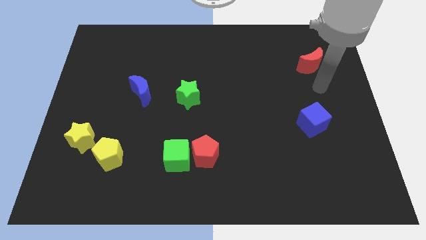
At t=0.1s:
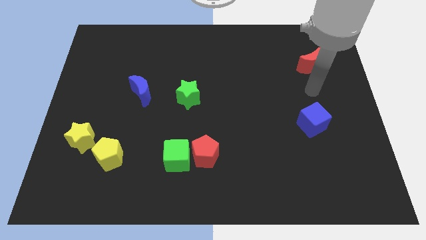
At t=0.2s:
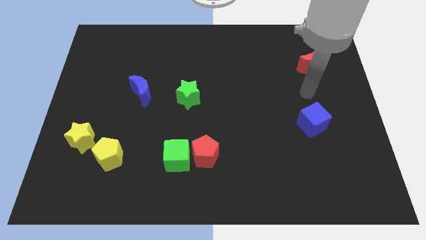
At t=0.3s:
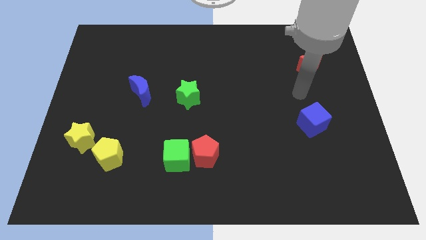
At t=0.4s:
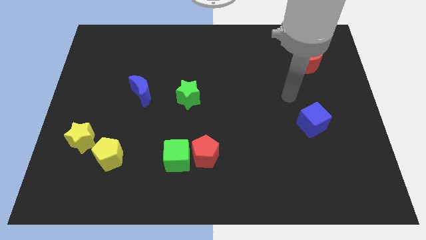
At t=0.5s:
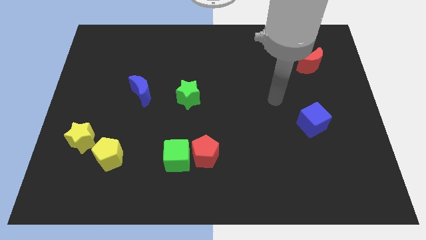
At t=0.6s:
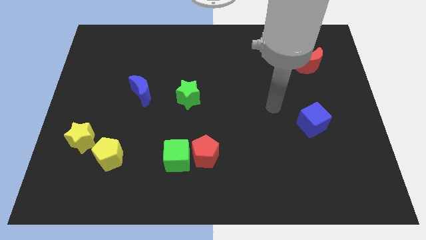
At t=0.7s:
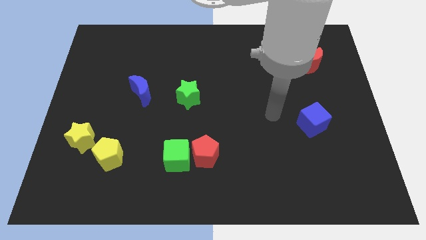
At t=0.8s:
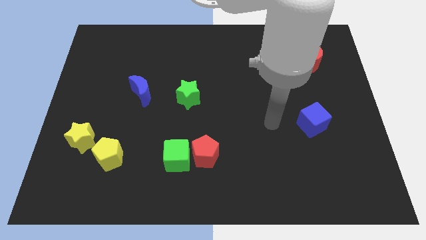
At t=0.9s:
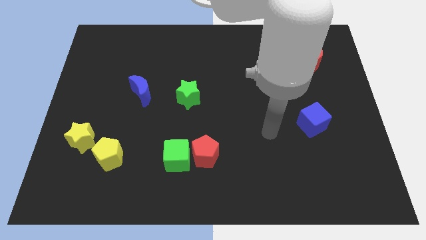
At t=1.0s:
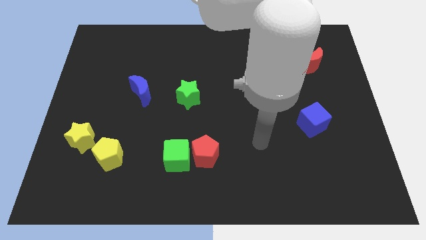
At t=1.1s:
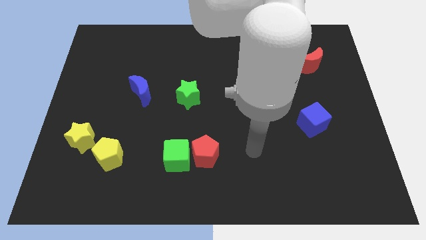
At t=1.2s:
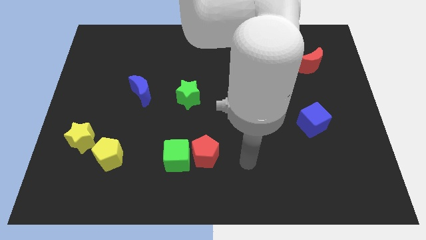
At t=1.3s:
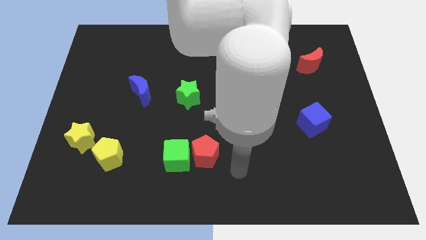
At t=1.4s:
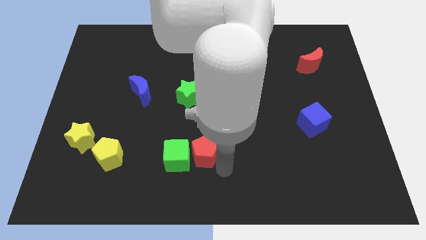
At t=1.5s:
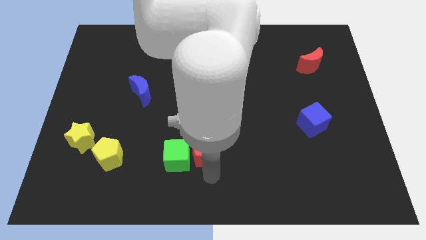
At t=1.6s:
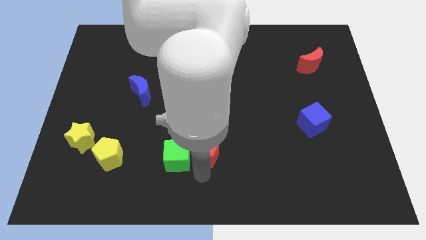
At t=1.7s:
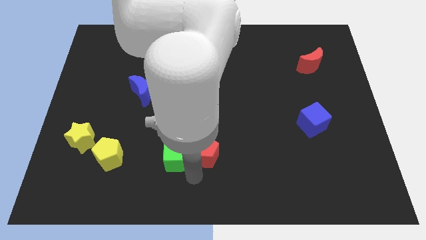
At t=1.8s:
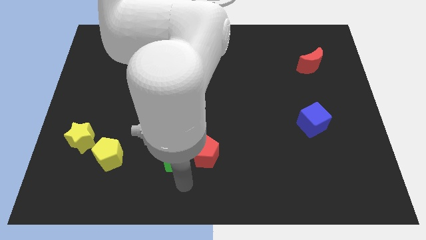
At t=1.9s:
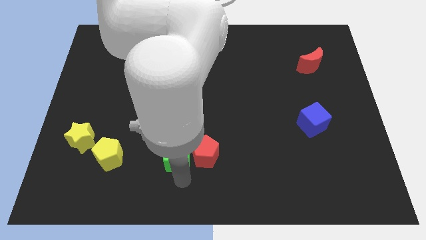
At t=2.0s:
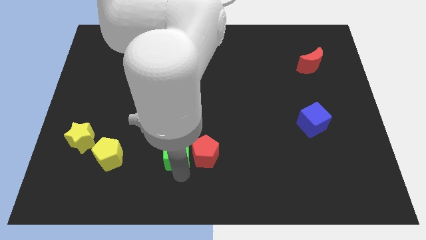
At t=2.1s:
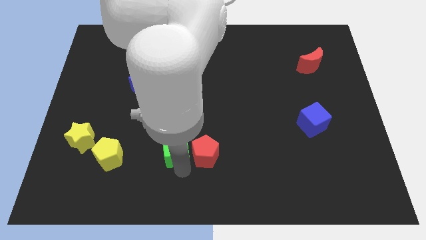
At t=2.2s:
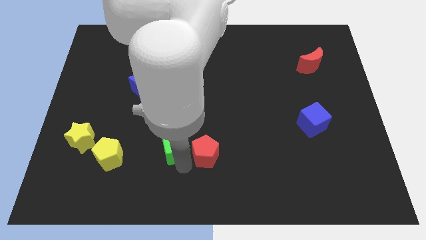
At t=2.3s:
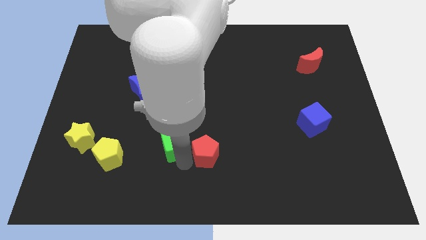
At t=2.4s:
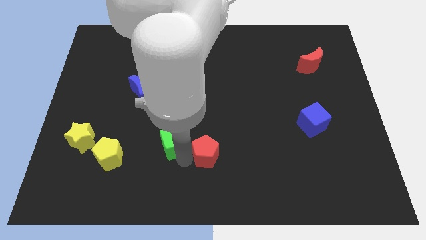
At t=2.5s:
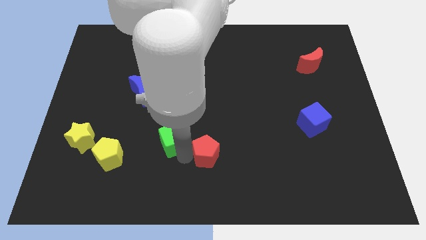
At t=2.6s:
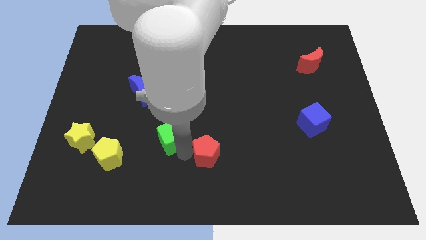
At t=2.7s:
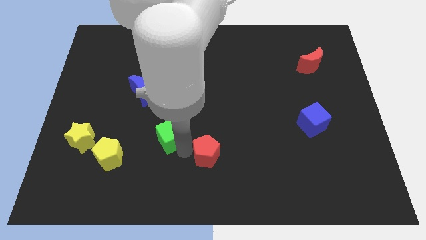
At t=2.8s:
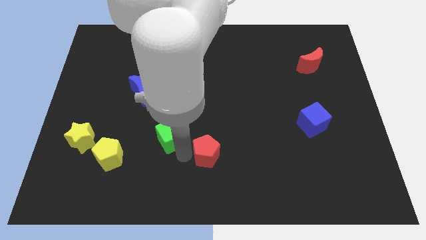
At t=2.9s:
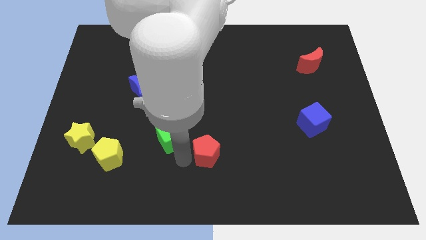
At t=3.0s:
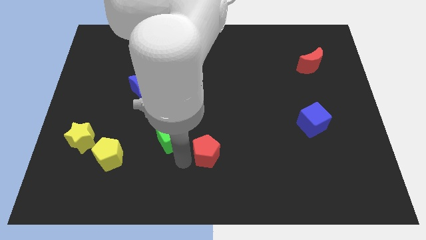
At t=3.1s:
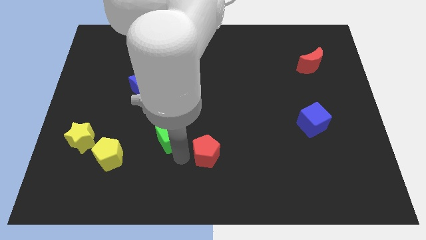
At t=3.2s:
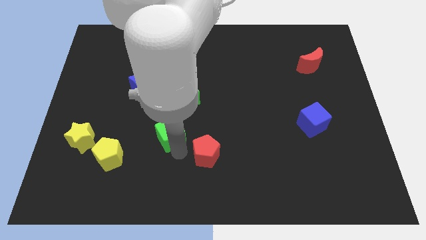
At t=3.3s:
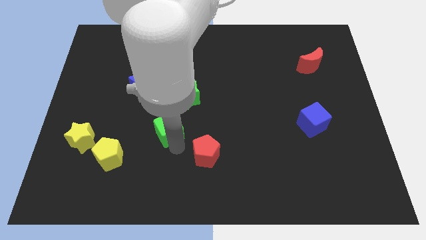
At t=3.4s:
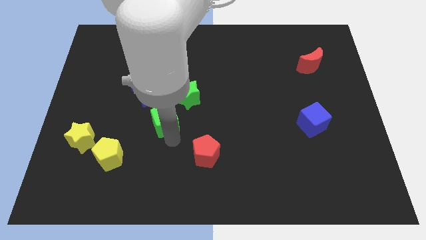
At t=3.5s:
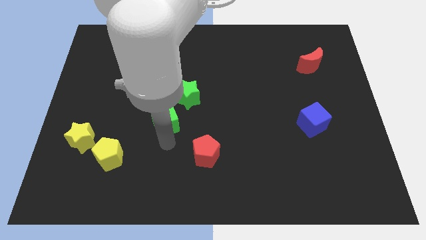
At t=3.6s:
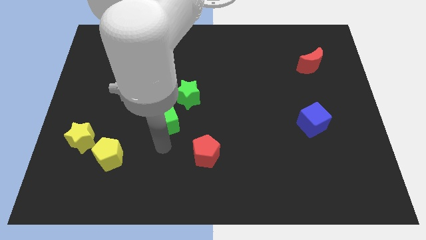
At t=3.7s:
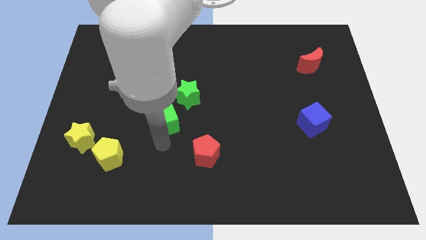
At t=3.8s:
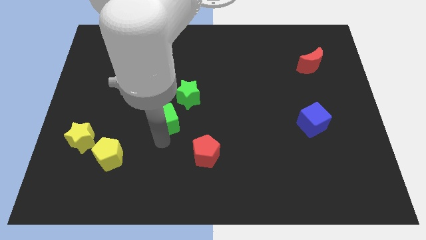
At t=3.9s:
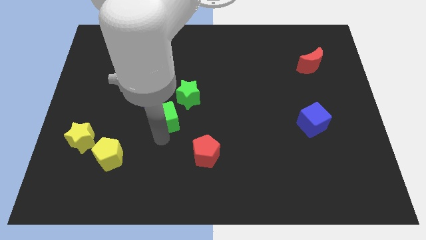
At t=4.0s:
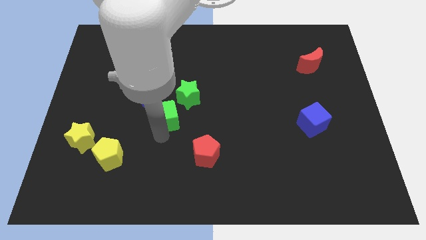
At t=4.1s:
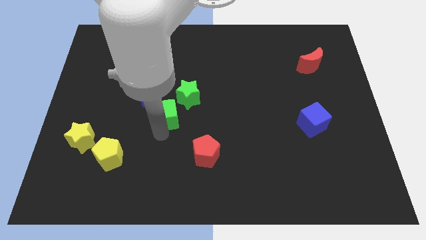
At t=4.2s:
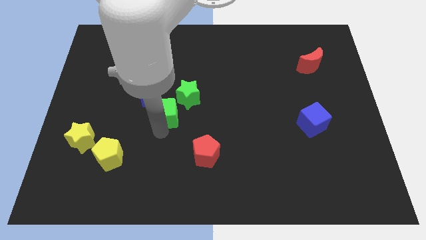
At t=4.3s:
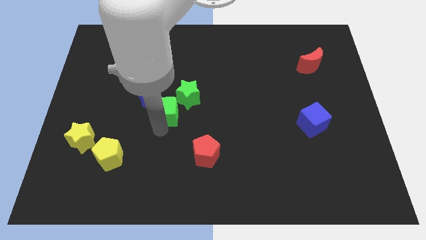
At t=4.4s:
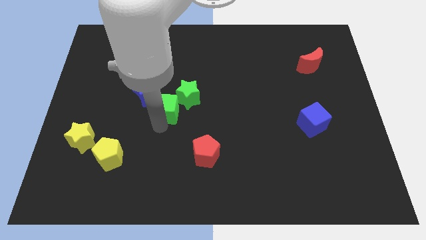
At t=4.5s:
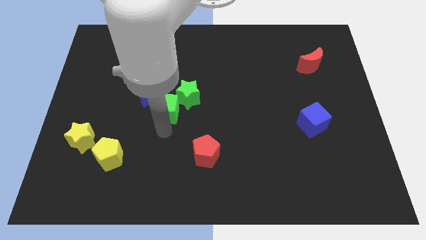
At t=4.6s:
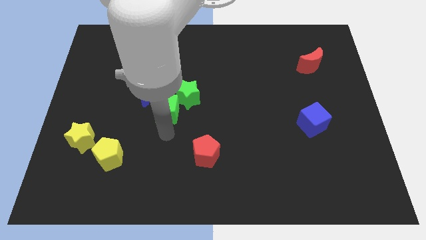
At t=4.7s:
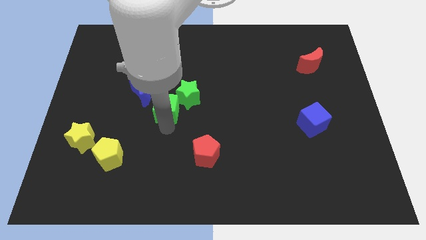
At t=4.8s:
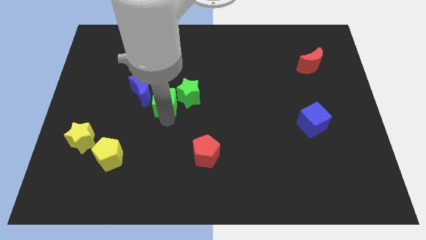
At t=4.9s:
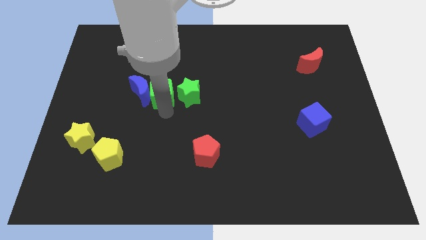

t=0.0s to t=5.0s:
move the green cube to the top left side of the green star

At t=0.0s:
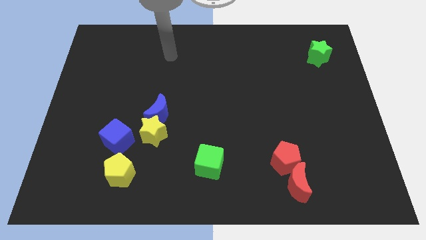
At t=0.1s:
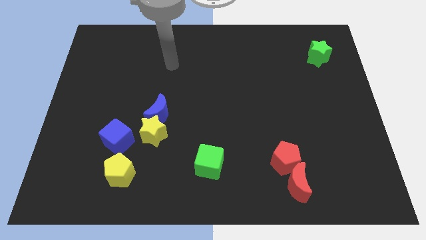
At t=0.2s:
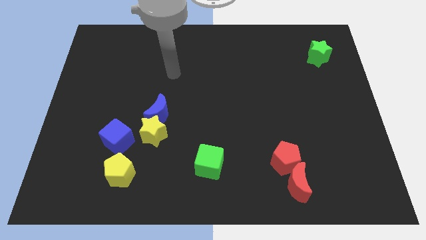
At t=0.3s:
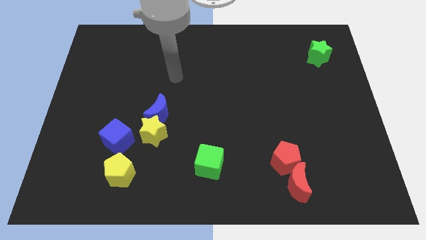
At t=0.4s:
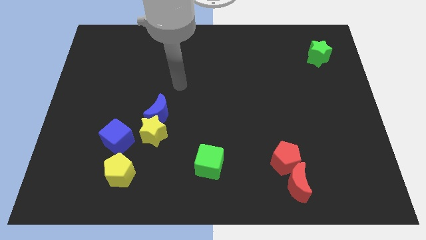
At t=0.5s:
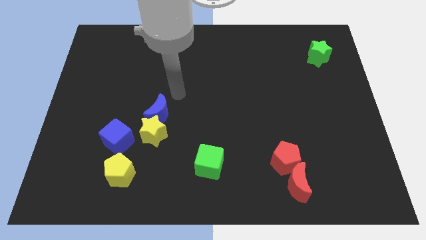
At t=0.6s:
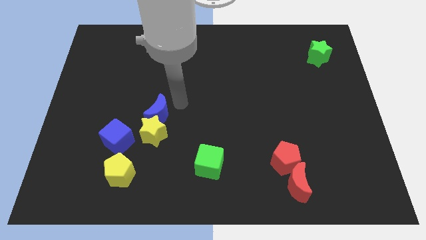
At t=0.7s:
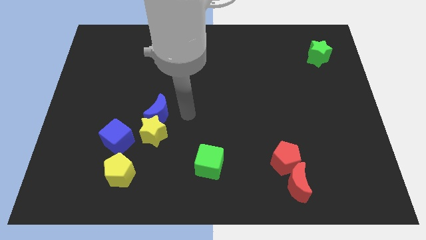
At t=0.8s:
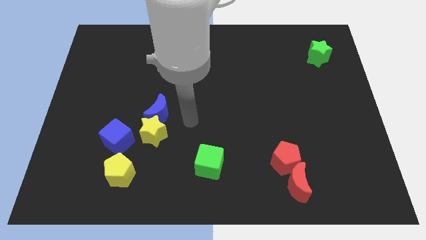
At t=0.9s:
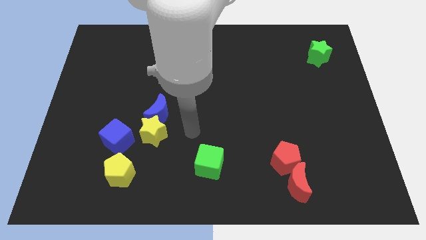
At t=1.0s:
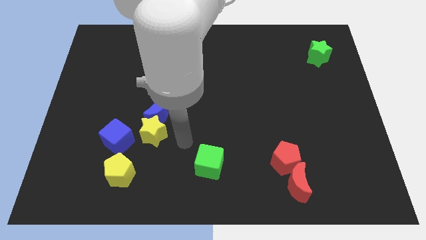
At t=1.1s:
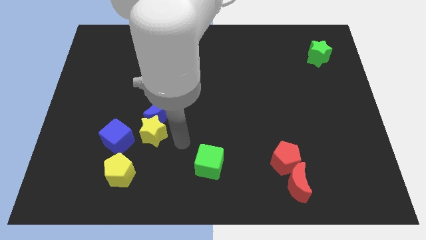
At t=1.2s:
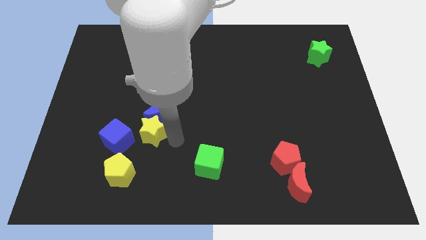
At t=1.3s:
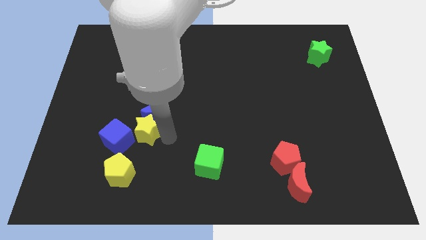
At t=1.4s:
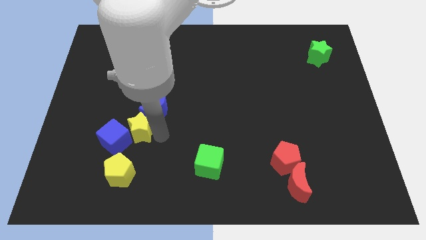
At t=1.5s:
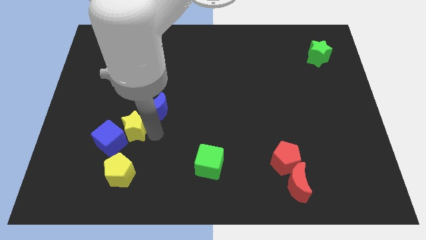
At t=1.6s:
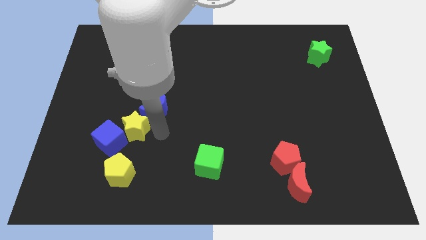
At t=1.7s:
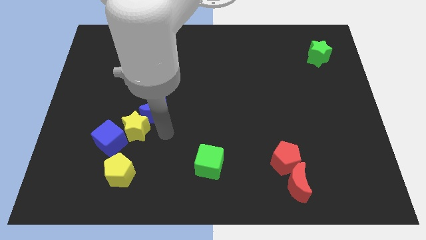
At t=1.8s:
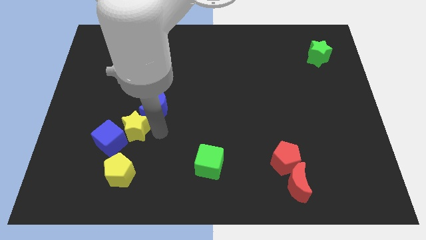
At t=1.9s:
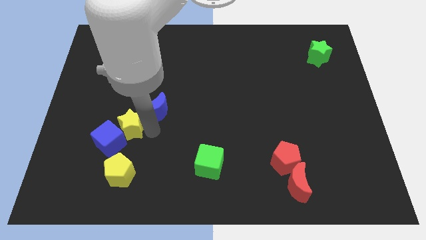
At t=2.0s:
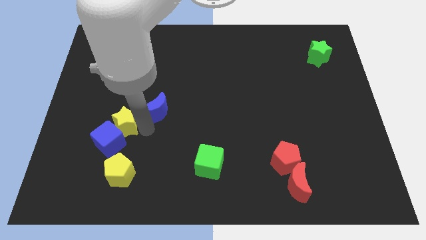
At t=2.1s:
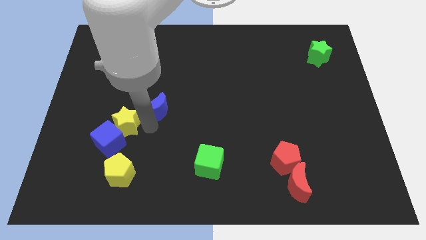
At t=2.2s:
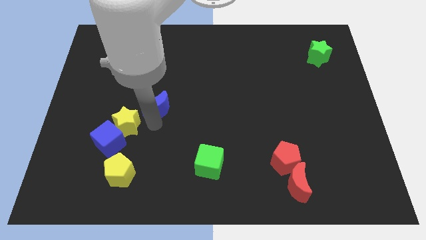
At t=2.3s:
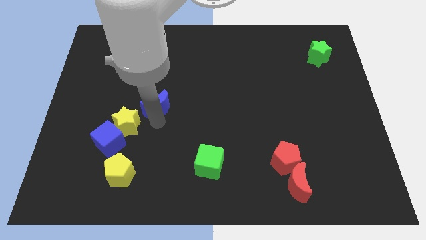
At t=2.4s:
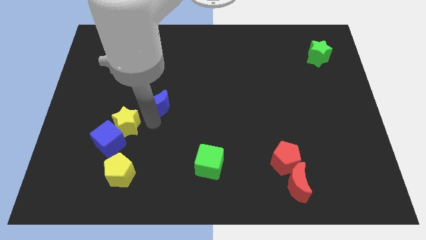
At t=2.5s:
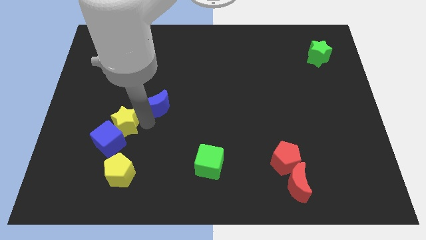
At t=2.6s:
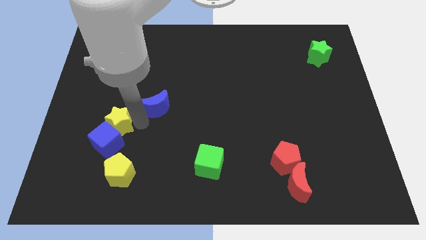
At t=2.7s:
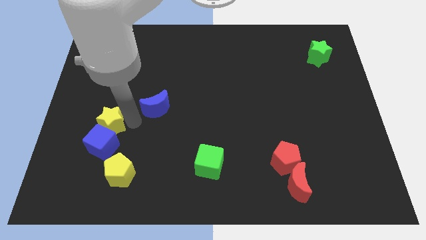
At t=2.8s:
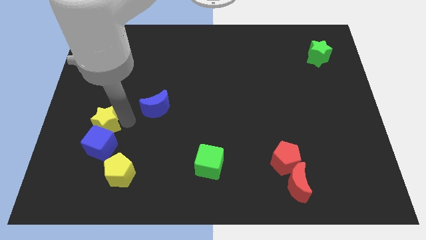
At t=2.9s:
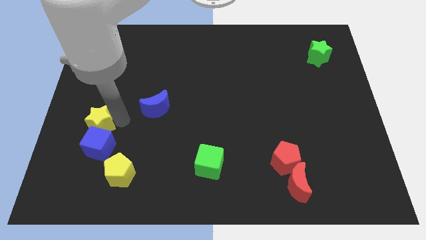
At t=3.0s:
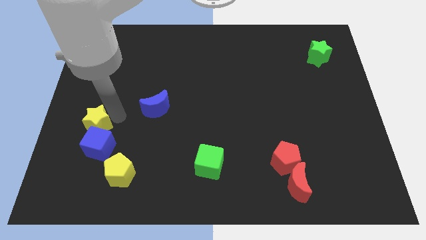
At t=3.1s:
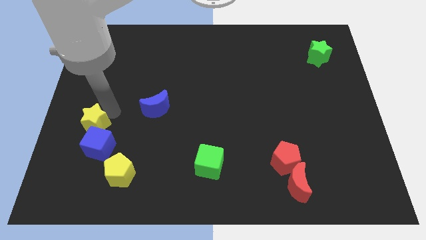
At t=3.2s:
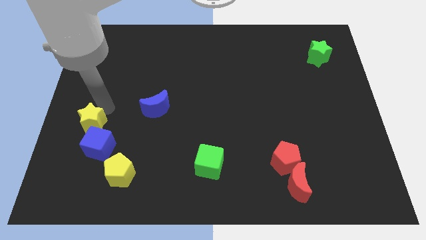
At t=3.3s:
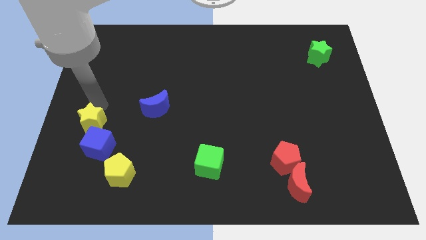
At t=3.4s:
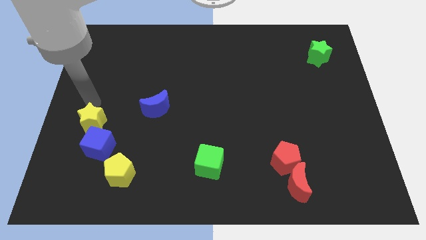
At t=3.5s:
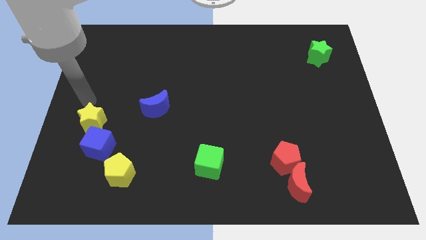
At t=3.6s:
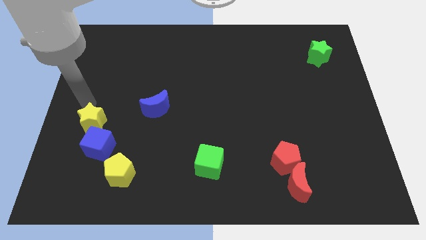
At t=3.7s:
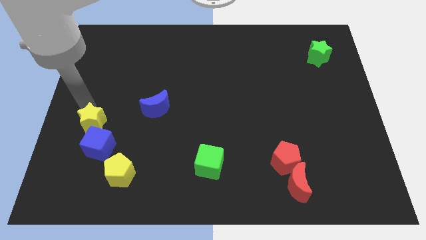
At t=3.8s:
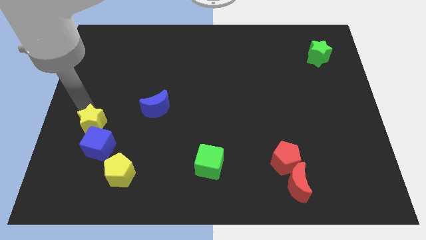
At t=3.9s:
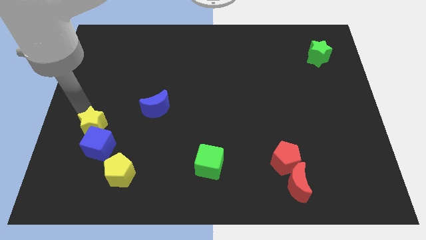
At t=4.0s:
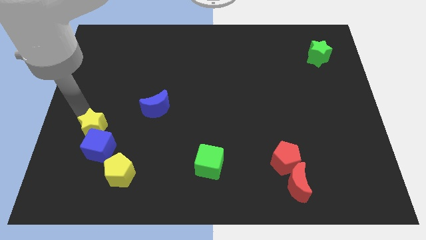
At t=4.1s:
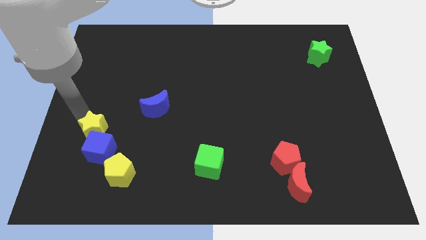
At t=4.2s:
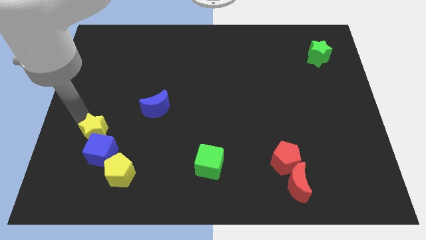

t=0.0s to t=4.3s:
put the yellow star to the top left of the yellow pentagon
